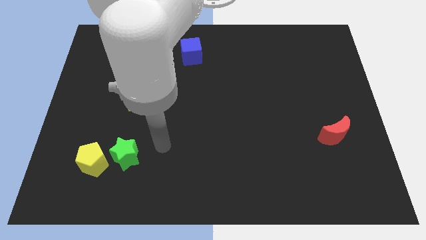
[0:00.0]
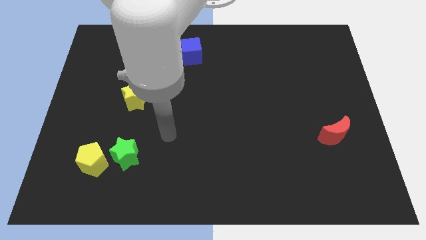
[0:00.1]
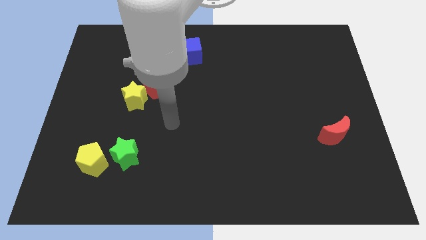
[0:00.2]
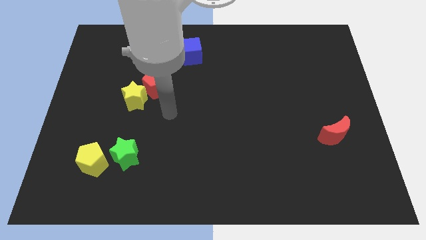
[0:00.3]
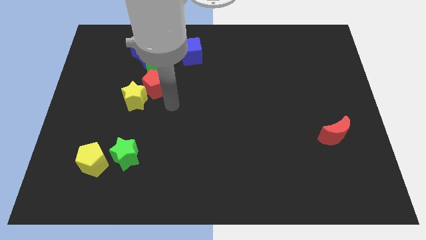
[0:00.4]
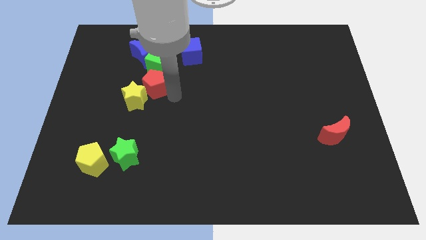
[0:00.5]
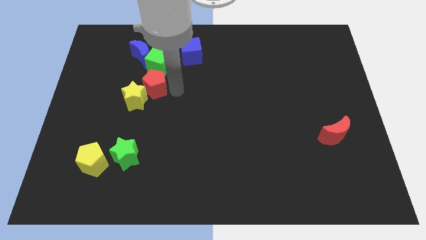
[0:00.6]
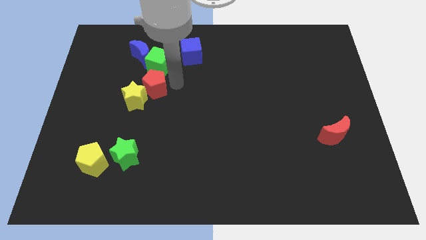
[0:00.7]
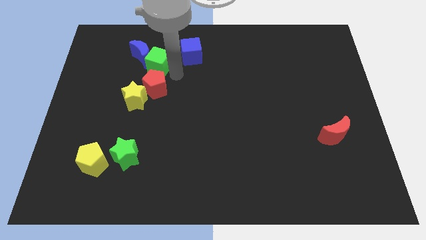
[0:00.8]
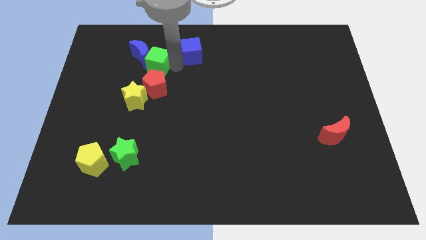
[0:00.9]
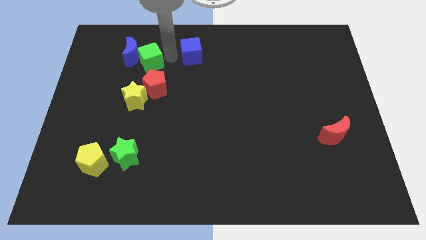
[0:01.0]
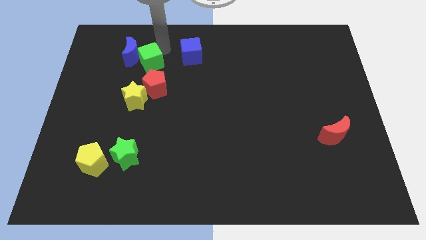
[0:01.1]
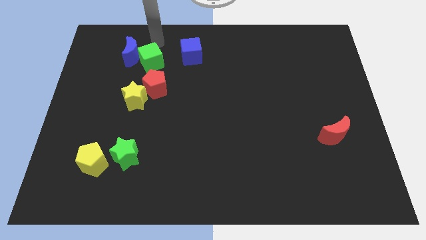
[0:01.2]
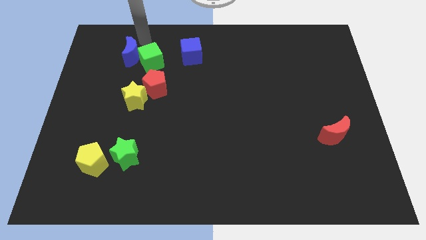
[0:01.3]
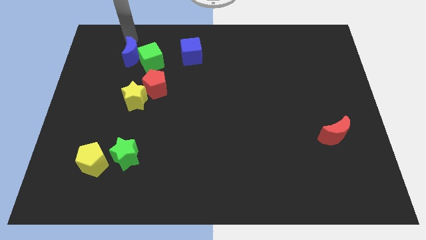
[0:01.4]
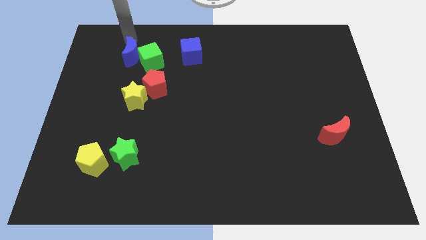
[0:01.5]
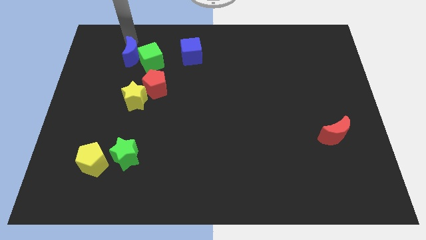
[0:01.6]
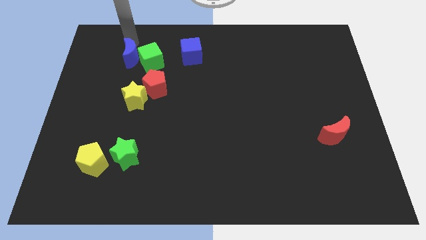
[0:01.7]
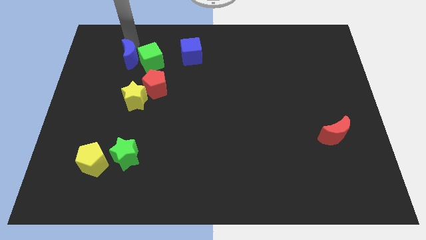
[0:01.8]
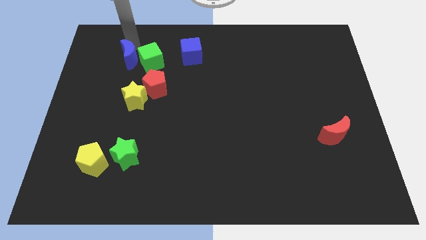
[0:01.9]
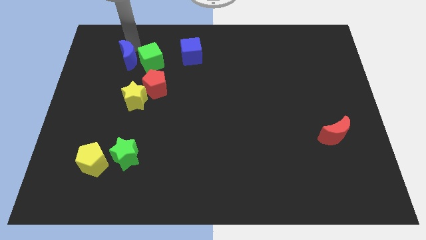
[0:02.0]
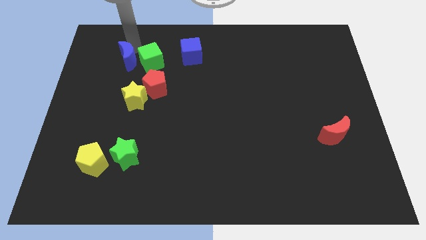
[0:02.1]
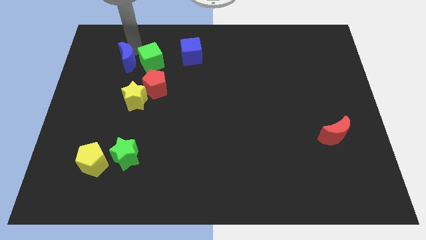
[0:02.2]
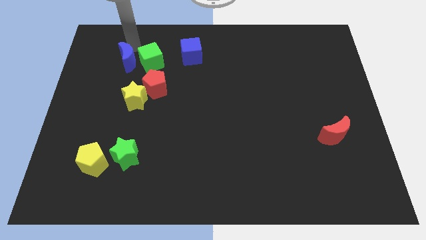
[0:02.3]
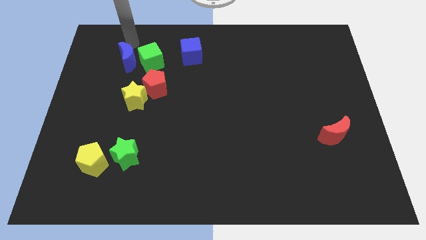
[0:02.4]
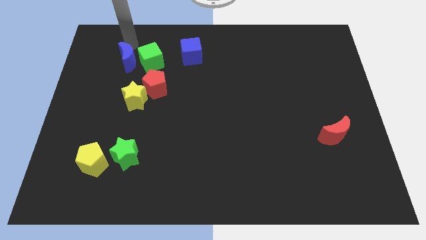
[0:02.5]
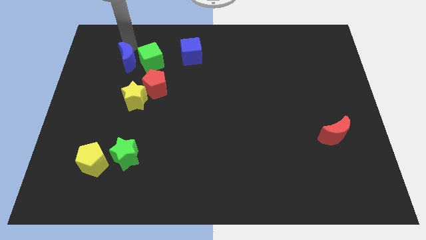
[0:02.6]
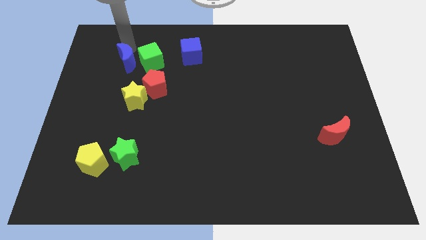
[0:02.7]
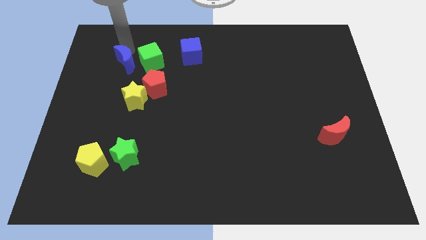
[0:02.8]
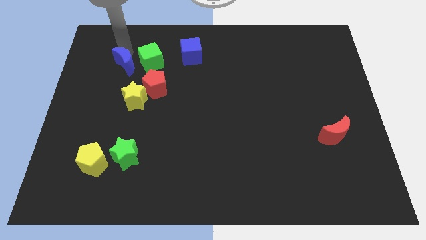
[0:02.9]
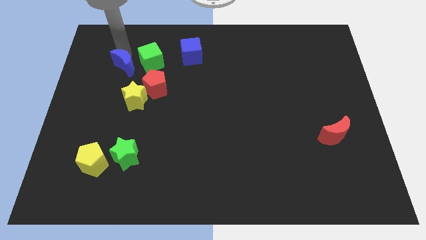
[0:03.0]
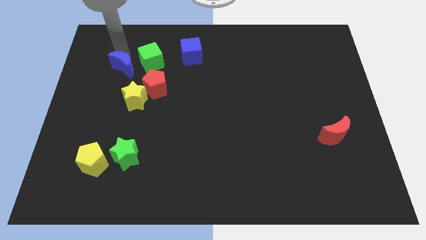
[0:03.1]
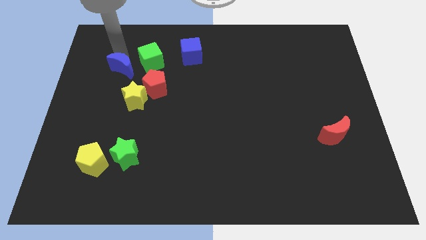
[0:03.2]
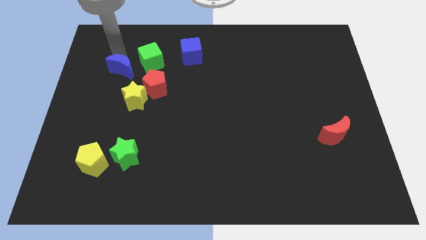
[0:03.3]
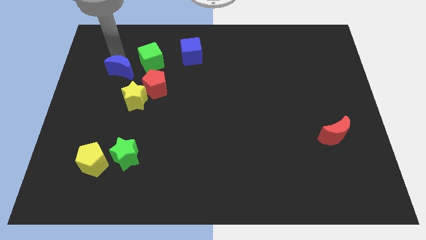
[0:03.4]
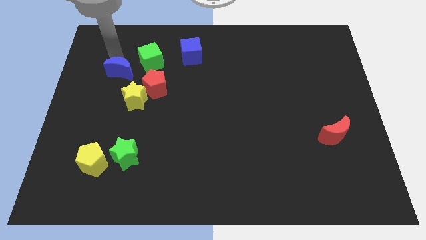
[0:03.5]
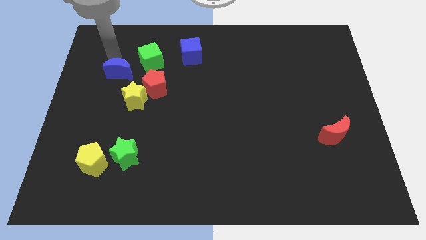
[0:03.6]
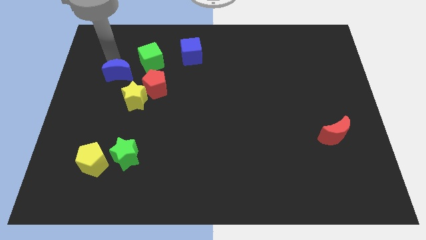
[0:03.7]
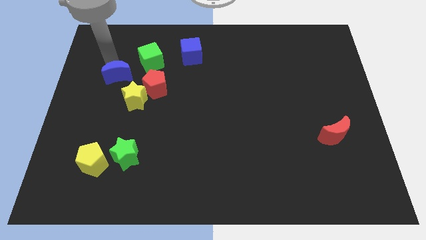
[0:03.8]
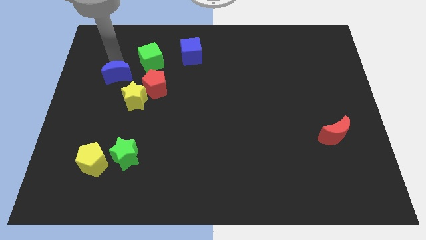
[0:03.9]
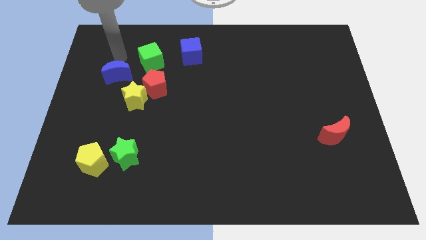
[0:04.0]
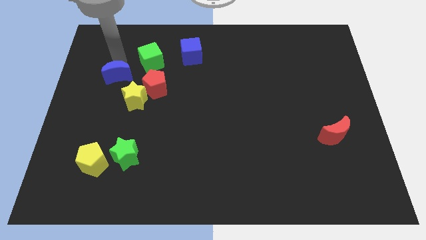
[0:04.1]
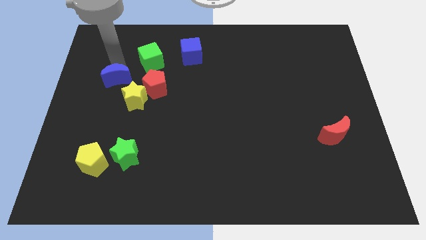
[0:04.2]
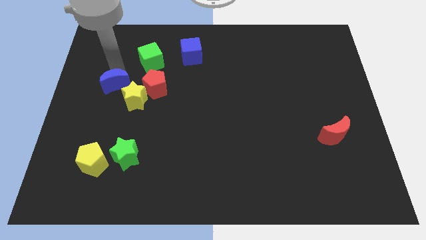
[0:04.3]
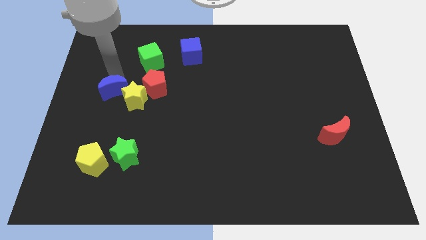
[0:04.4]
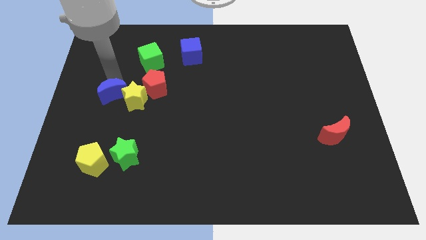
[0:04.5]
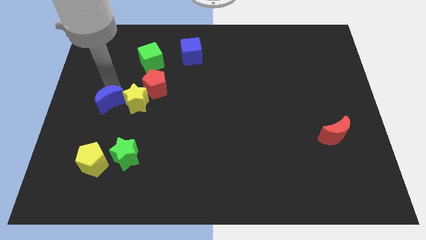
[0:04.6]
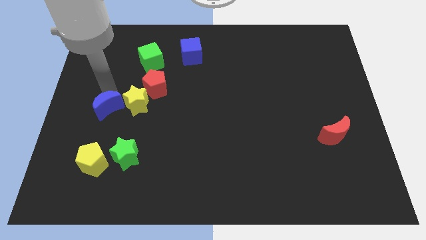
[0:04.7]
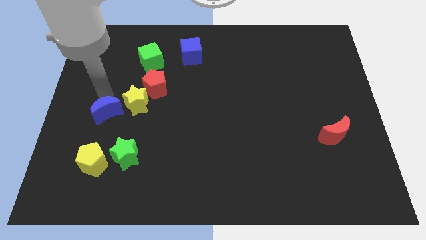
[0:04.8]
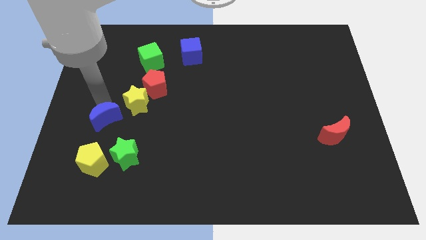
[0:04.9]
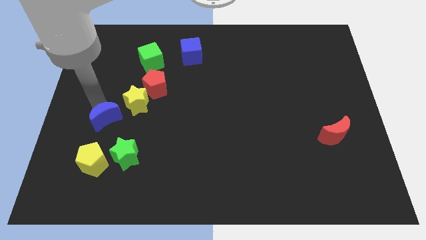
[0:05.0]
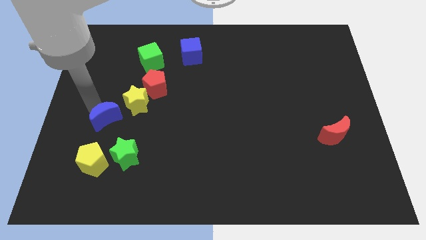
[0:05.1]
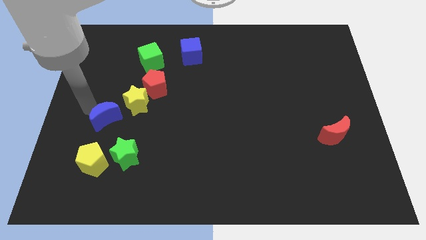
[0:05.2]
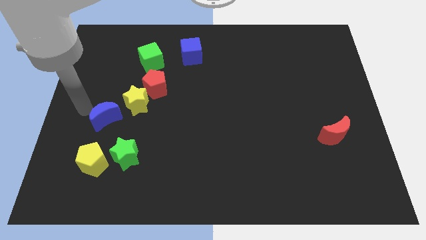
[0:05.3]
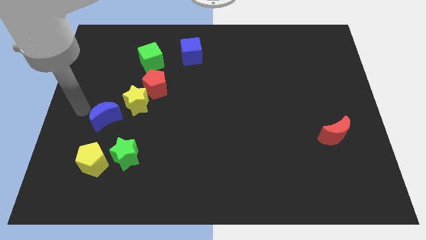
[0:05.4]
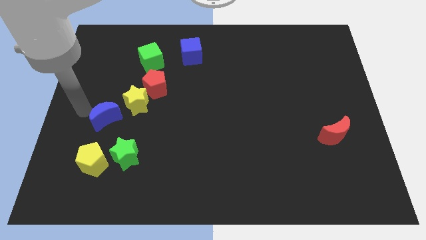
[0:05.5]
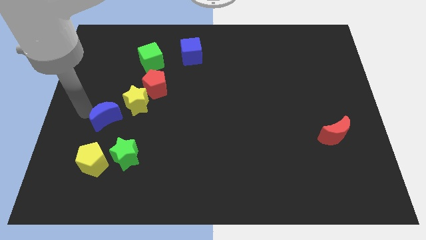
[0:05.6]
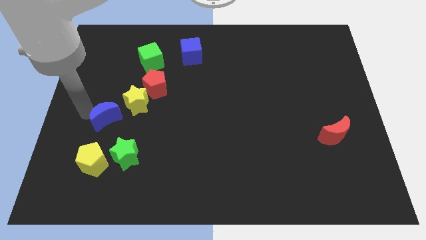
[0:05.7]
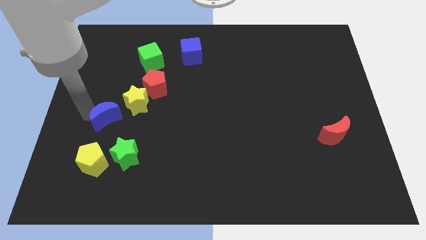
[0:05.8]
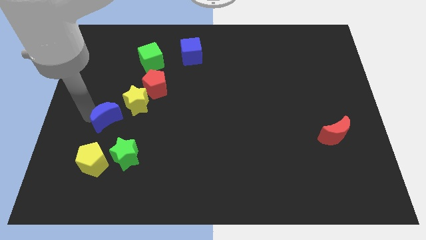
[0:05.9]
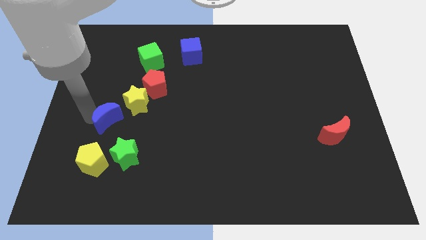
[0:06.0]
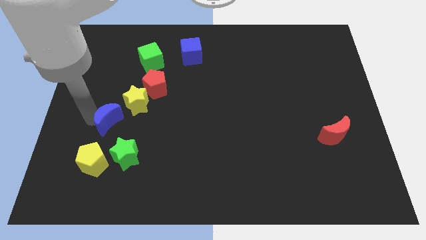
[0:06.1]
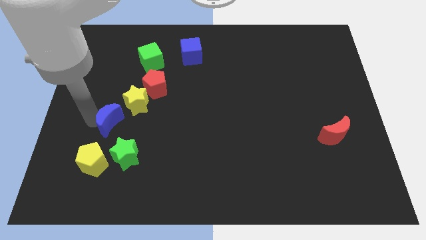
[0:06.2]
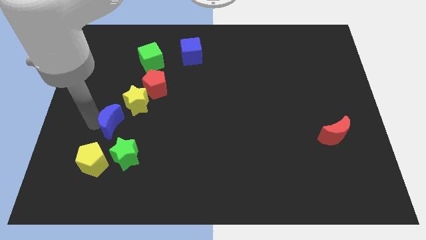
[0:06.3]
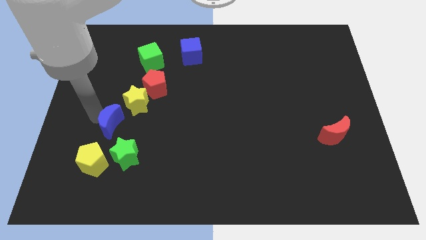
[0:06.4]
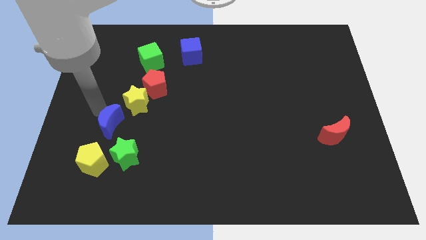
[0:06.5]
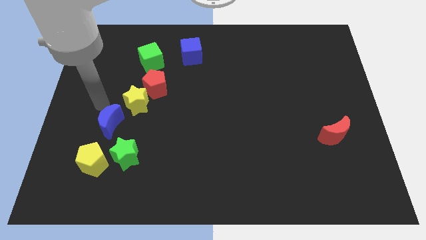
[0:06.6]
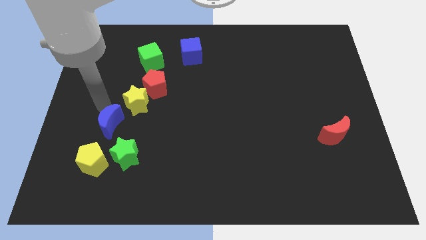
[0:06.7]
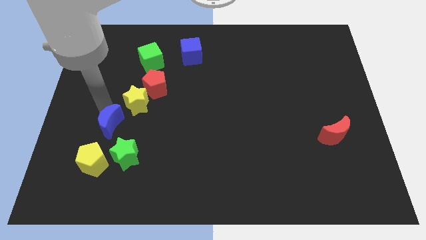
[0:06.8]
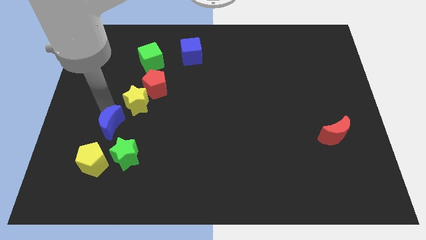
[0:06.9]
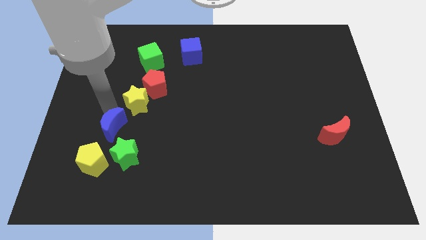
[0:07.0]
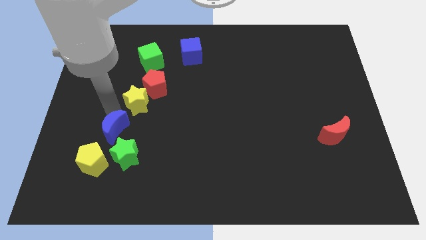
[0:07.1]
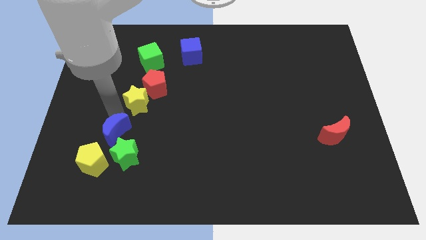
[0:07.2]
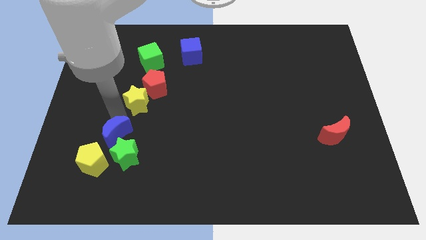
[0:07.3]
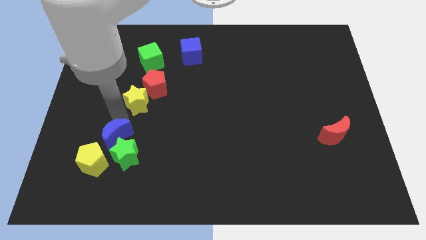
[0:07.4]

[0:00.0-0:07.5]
push the blue moon towards the green star
